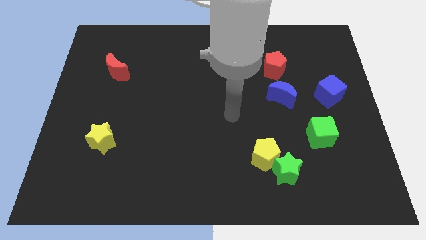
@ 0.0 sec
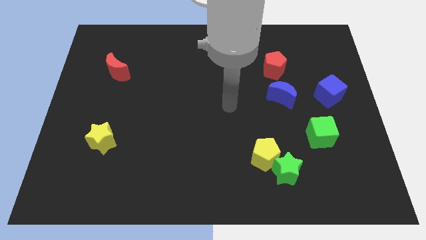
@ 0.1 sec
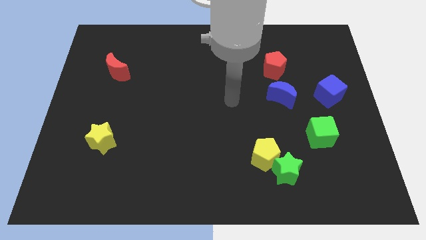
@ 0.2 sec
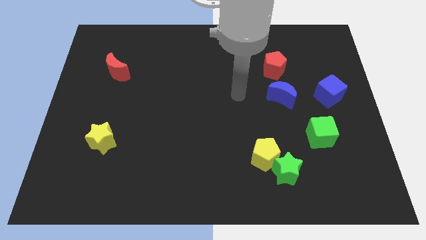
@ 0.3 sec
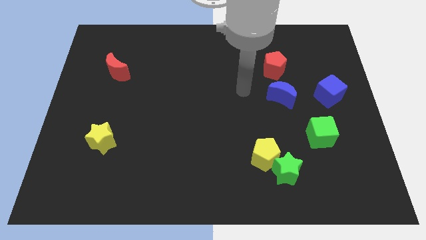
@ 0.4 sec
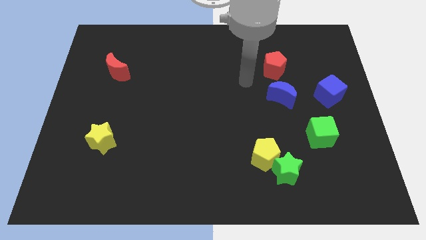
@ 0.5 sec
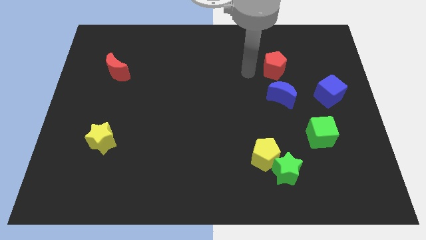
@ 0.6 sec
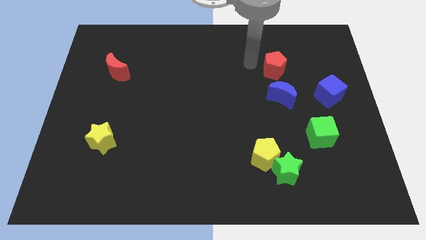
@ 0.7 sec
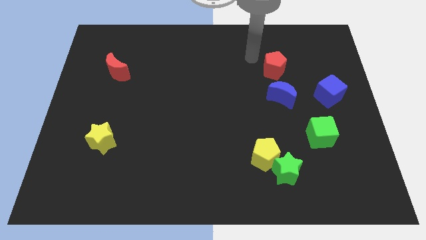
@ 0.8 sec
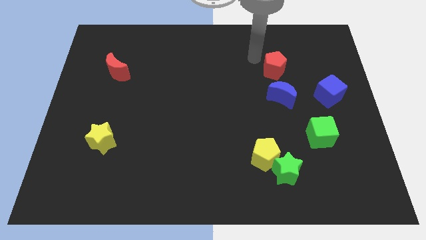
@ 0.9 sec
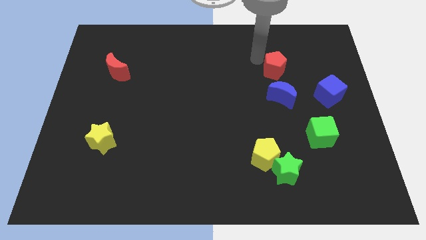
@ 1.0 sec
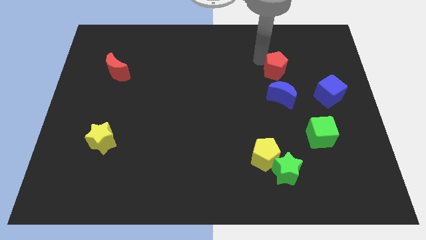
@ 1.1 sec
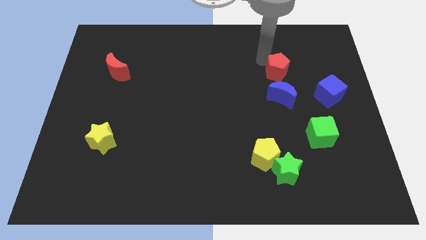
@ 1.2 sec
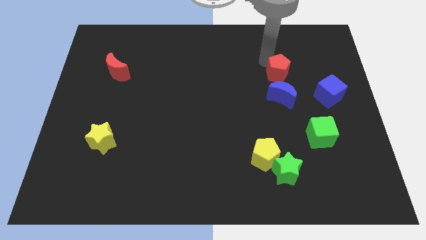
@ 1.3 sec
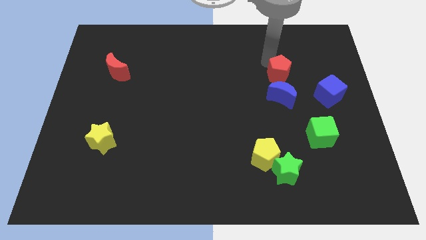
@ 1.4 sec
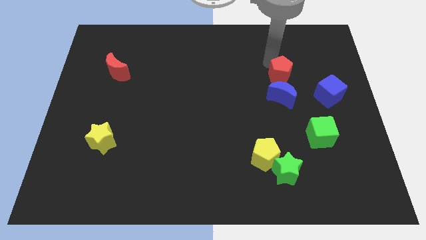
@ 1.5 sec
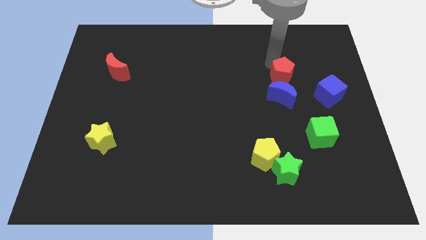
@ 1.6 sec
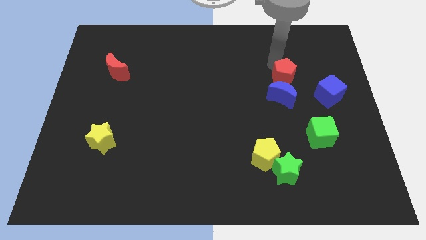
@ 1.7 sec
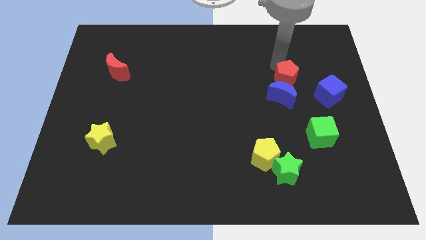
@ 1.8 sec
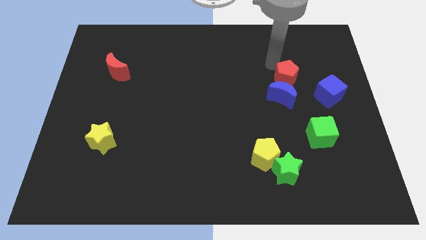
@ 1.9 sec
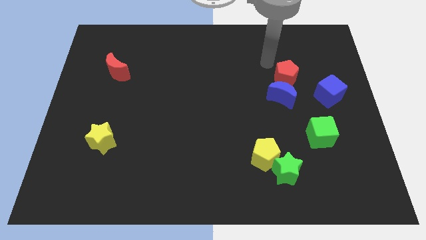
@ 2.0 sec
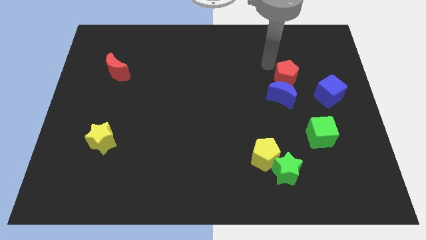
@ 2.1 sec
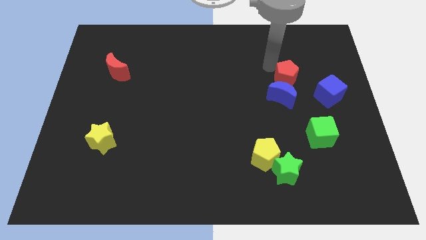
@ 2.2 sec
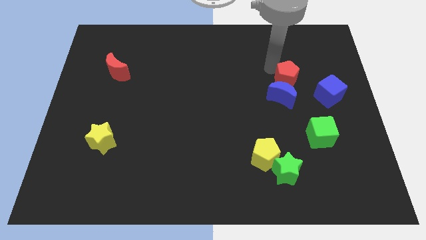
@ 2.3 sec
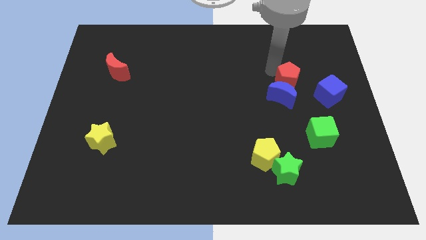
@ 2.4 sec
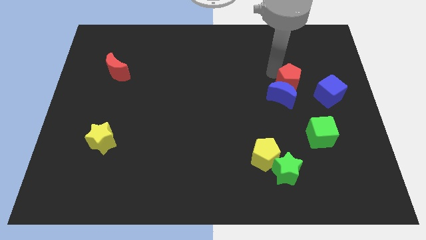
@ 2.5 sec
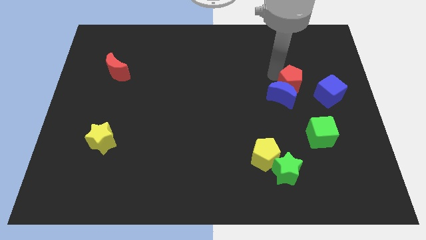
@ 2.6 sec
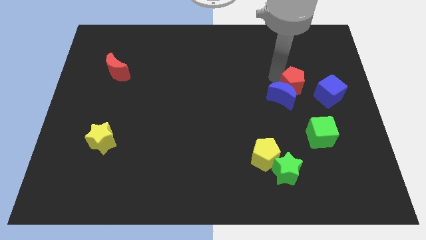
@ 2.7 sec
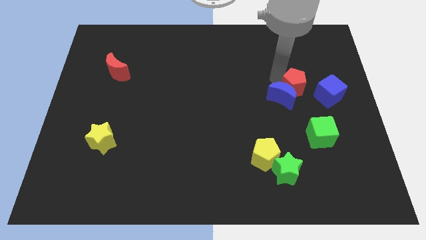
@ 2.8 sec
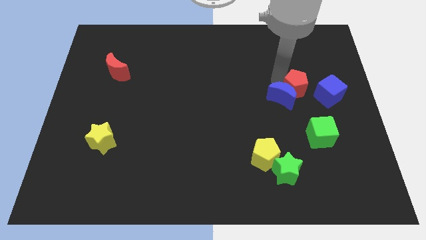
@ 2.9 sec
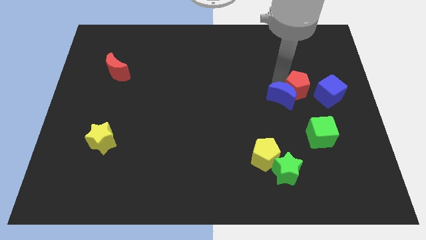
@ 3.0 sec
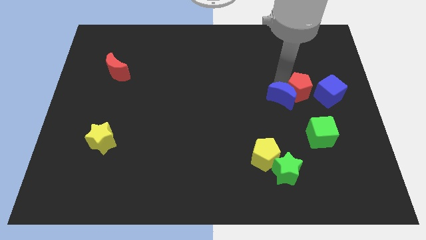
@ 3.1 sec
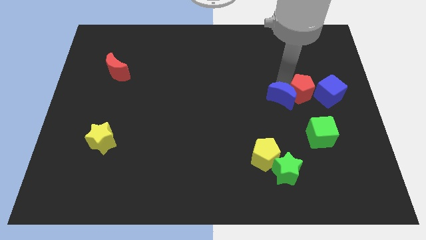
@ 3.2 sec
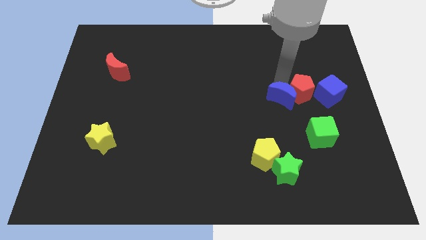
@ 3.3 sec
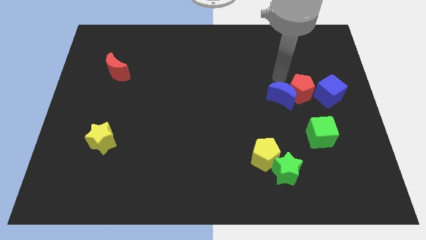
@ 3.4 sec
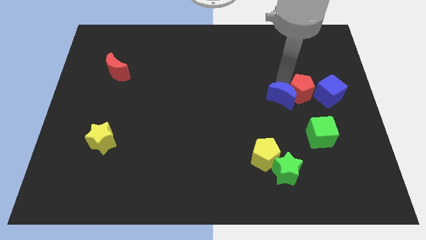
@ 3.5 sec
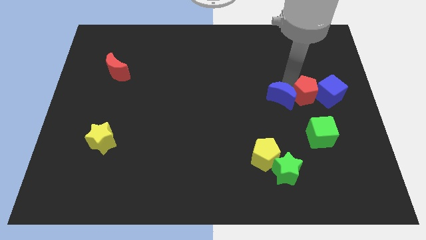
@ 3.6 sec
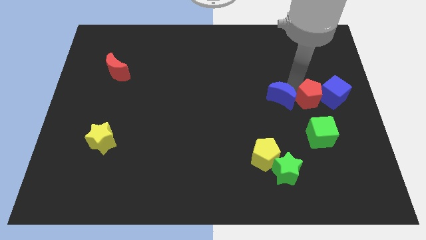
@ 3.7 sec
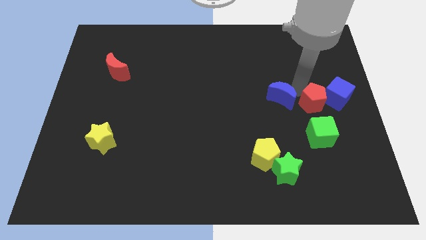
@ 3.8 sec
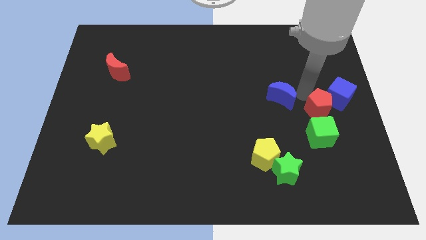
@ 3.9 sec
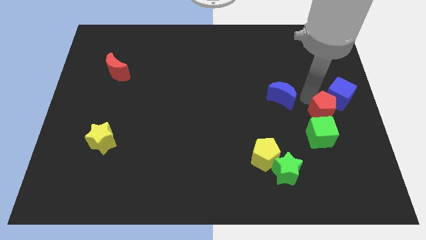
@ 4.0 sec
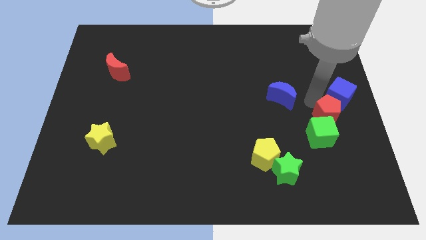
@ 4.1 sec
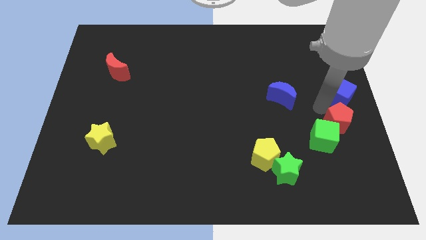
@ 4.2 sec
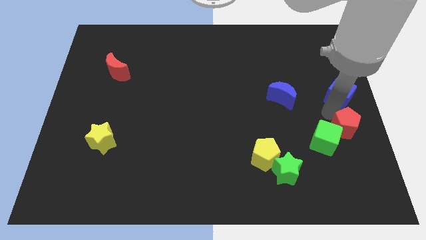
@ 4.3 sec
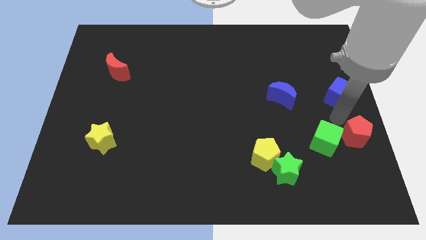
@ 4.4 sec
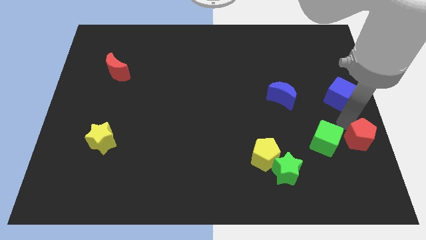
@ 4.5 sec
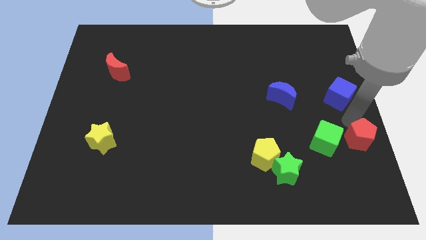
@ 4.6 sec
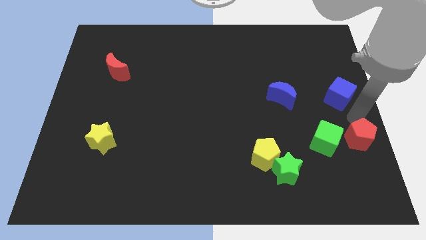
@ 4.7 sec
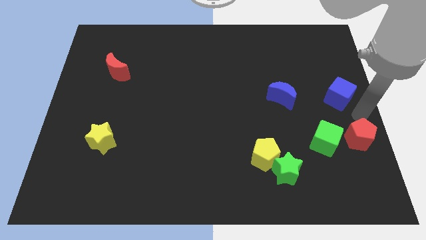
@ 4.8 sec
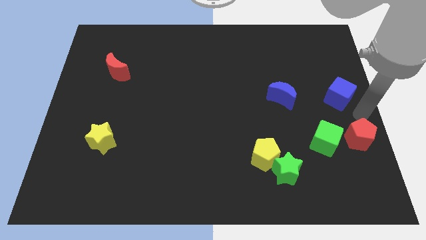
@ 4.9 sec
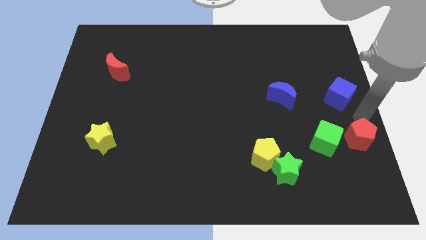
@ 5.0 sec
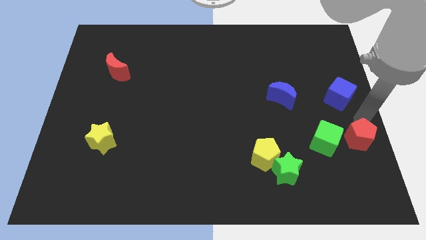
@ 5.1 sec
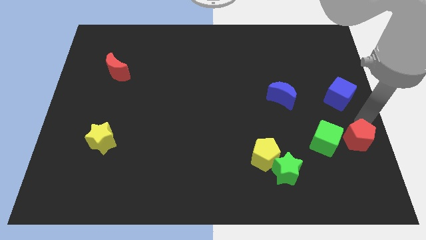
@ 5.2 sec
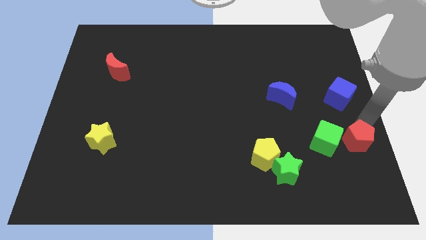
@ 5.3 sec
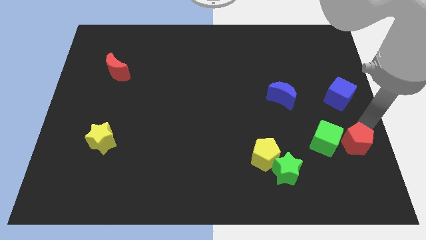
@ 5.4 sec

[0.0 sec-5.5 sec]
put the red pentagon diagonally down and to the right of the green cube
